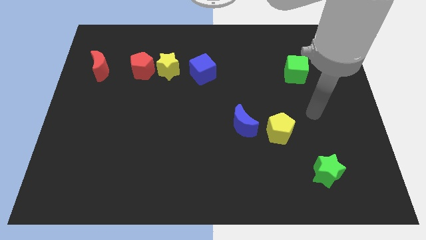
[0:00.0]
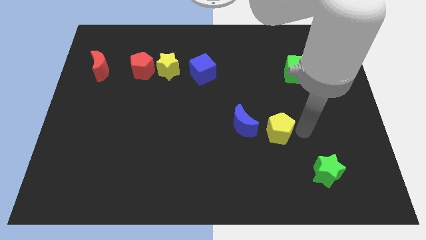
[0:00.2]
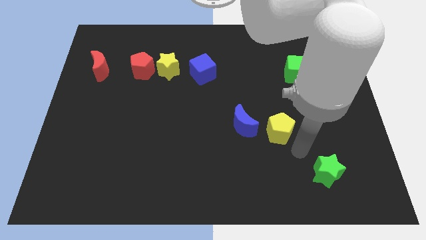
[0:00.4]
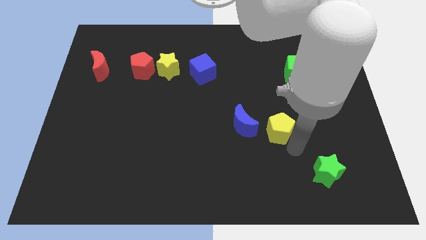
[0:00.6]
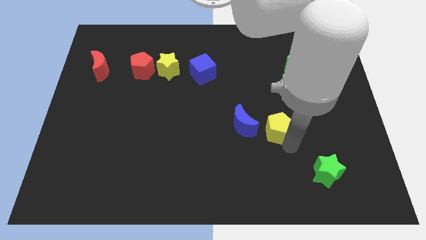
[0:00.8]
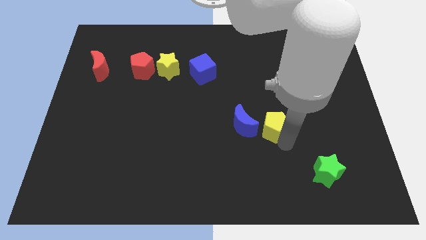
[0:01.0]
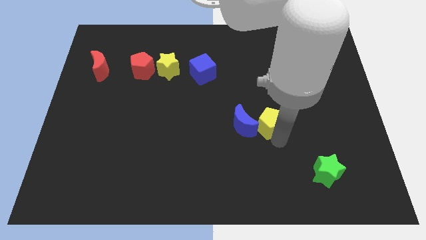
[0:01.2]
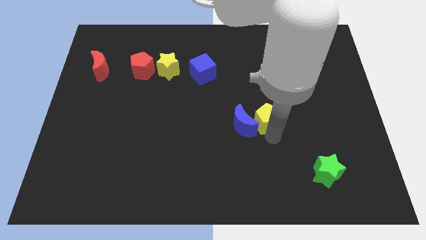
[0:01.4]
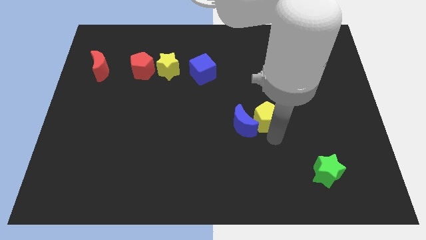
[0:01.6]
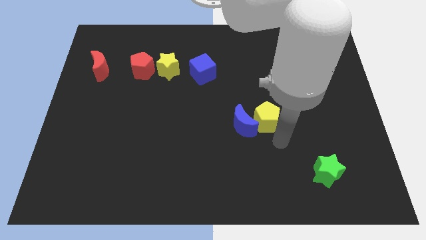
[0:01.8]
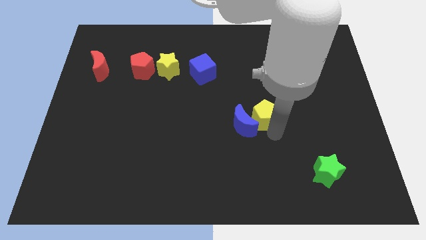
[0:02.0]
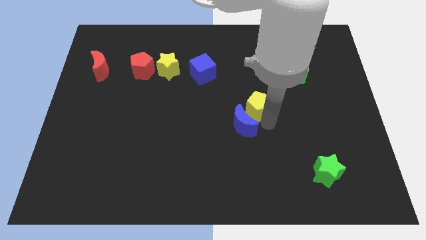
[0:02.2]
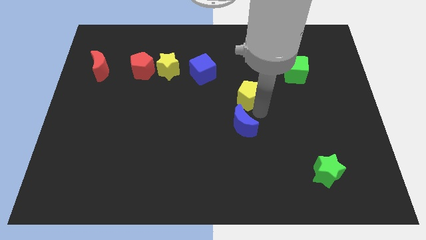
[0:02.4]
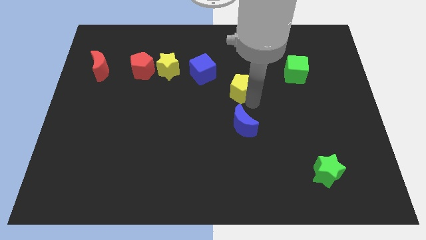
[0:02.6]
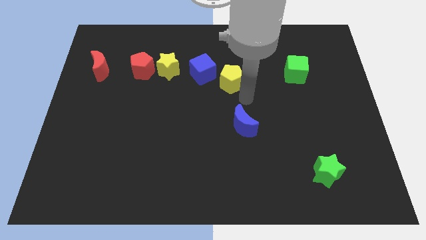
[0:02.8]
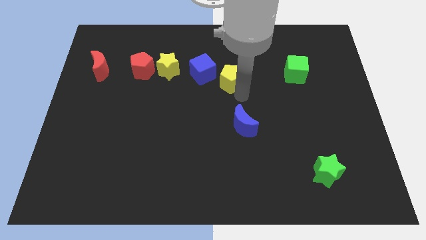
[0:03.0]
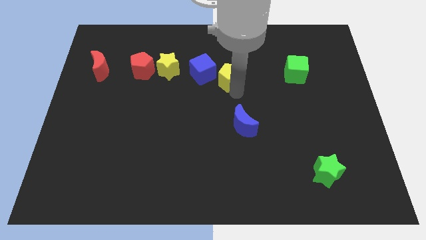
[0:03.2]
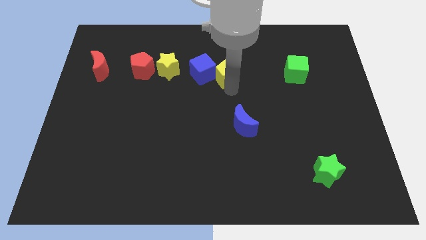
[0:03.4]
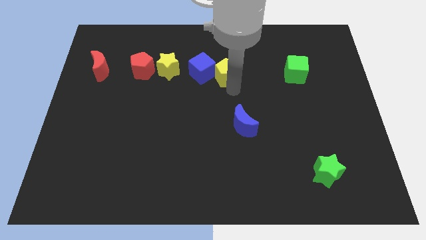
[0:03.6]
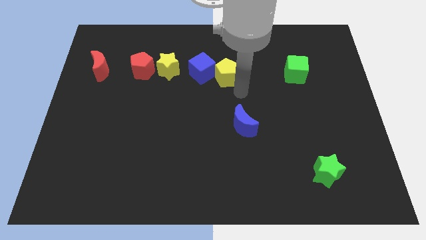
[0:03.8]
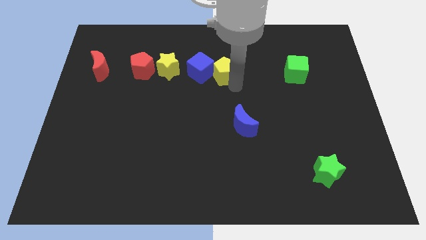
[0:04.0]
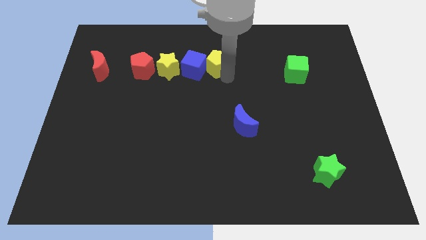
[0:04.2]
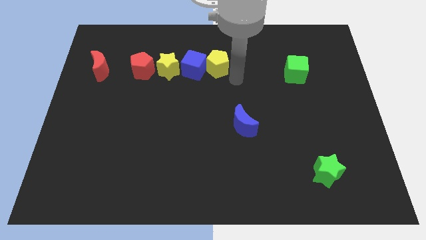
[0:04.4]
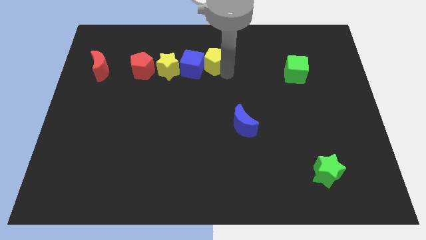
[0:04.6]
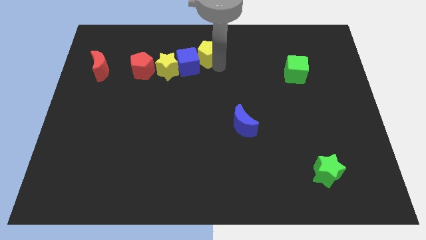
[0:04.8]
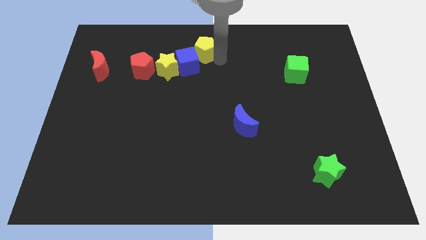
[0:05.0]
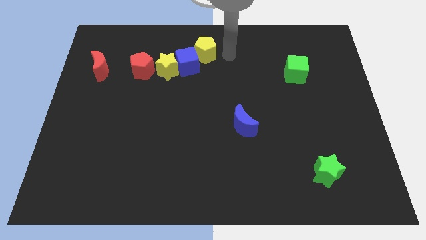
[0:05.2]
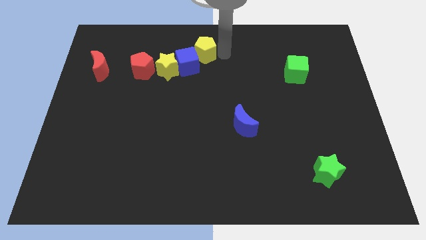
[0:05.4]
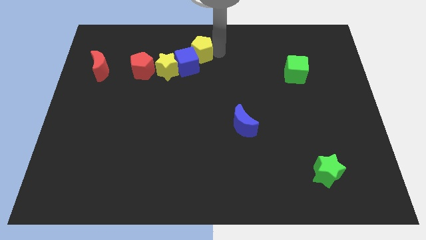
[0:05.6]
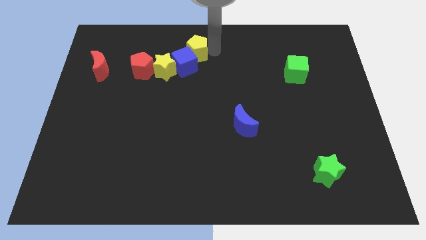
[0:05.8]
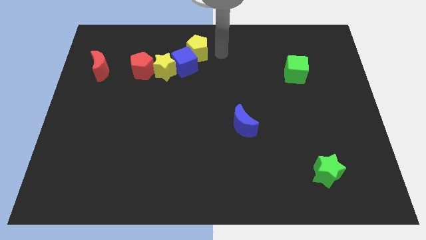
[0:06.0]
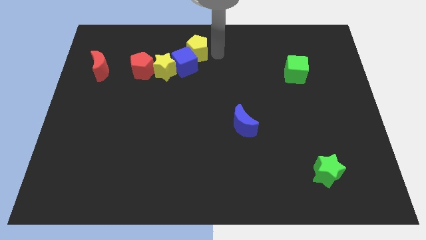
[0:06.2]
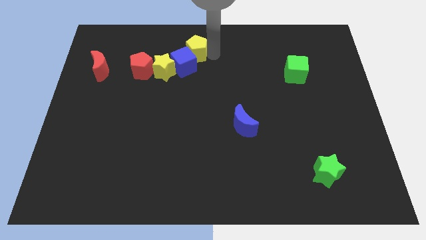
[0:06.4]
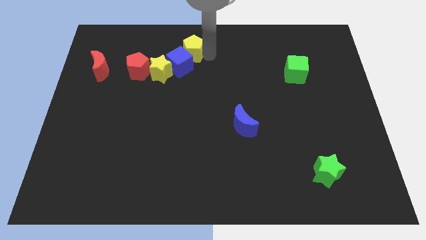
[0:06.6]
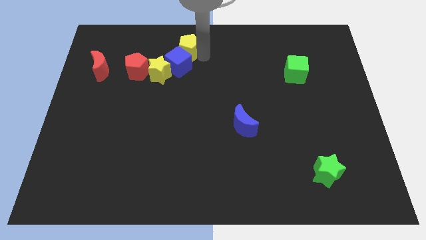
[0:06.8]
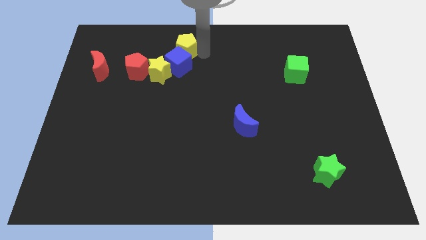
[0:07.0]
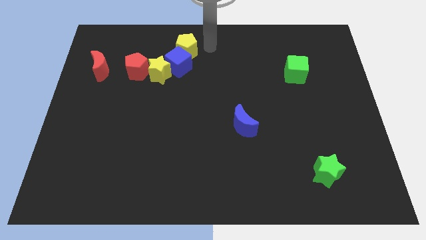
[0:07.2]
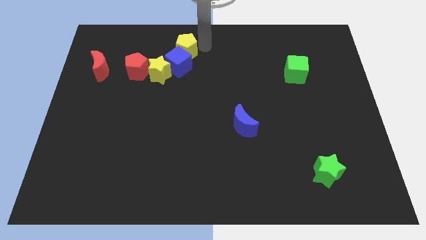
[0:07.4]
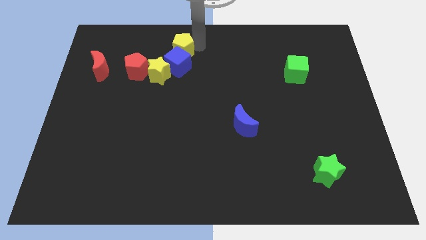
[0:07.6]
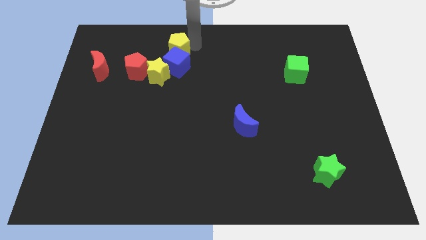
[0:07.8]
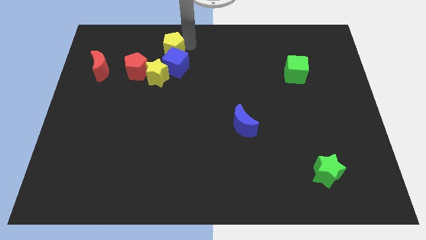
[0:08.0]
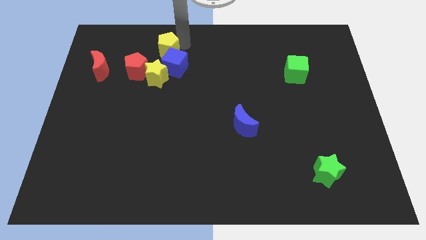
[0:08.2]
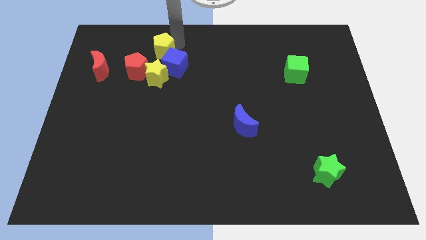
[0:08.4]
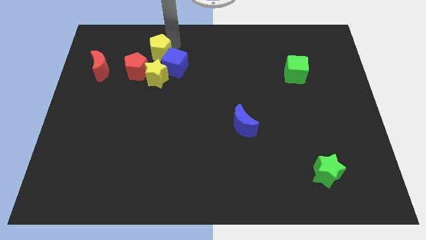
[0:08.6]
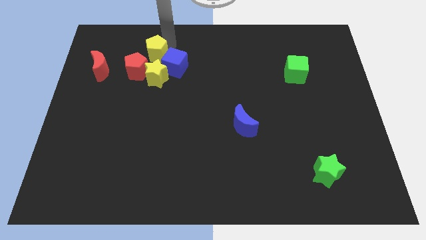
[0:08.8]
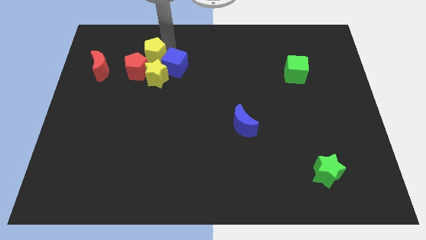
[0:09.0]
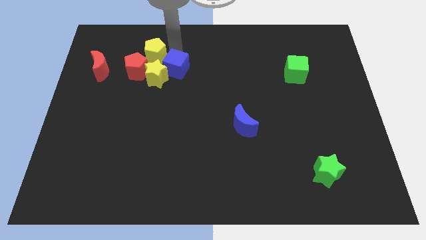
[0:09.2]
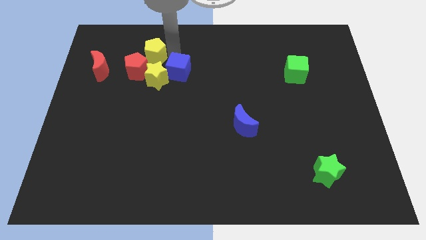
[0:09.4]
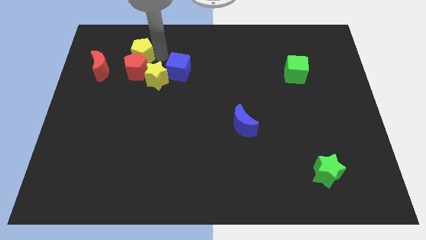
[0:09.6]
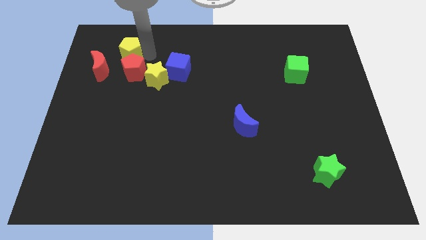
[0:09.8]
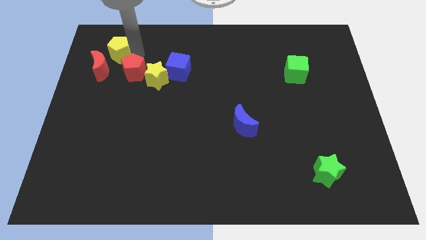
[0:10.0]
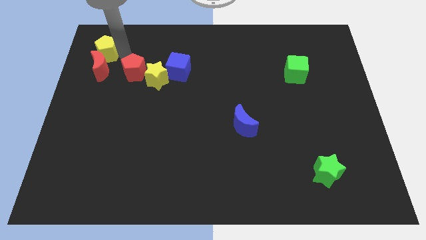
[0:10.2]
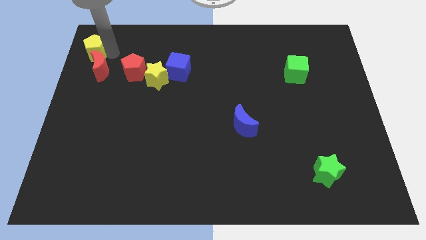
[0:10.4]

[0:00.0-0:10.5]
slide the yellow pentagon to the upper left corner

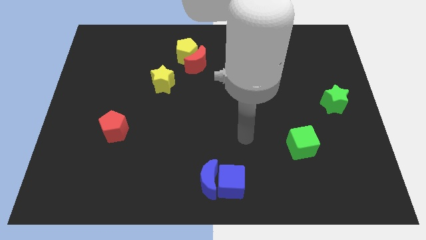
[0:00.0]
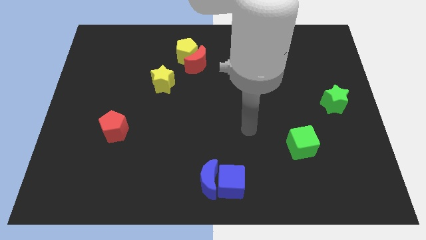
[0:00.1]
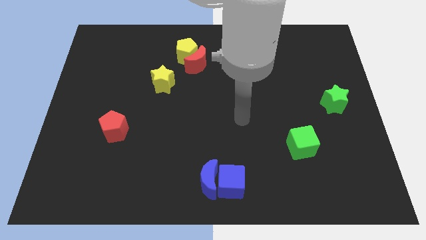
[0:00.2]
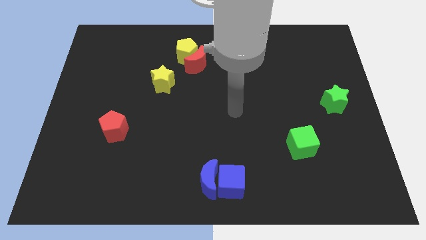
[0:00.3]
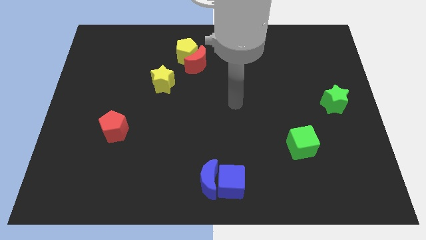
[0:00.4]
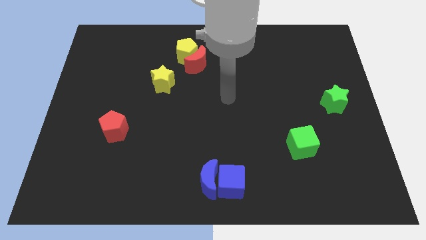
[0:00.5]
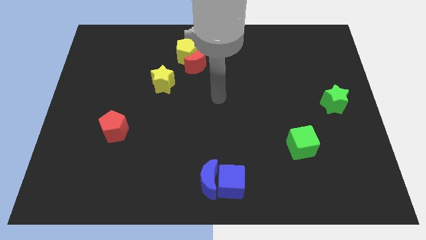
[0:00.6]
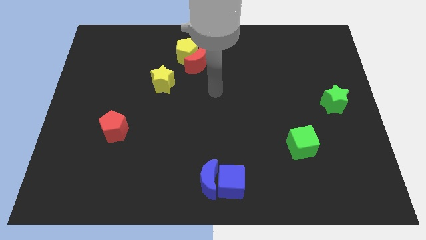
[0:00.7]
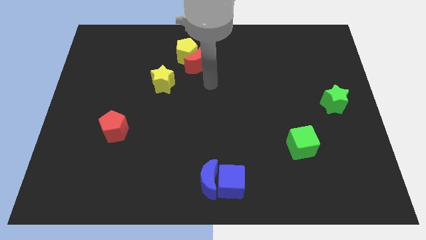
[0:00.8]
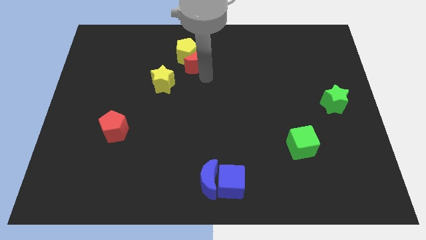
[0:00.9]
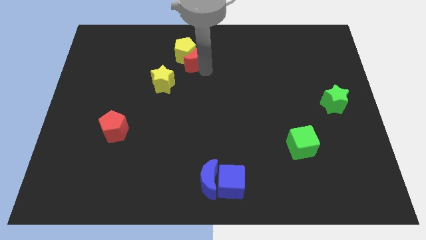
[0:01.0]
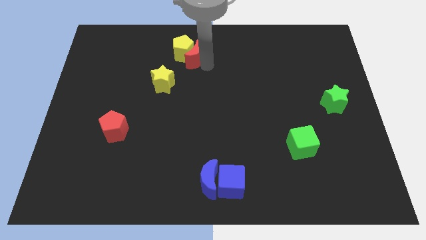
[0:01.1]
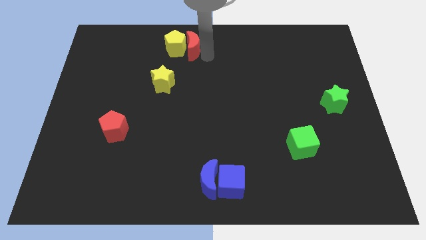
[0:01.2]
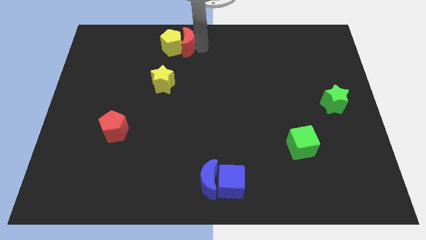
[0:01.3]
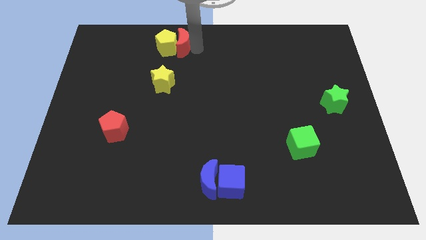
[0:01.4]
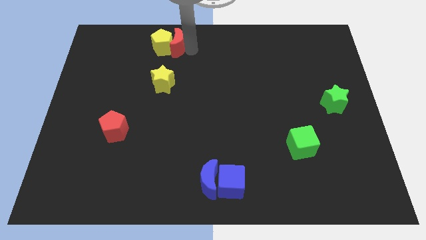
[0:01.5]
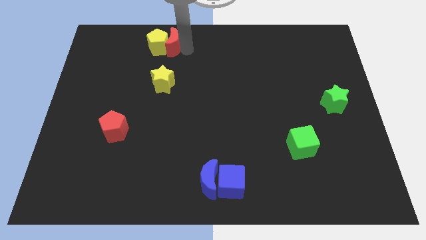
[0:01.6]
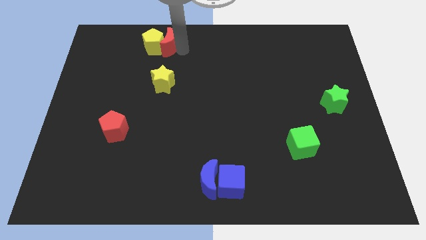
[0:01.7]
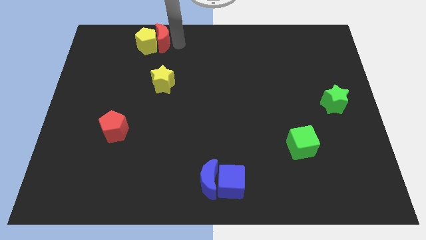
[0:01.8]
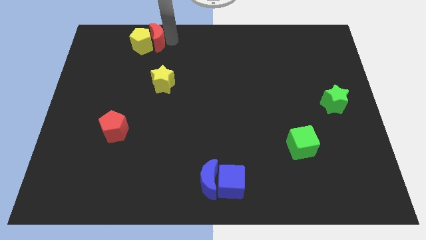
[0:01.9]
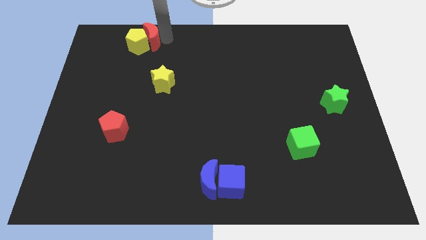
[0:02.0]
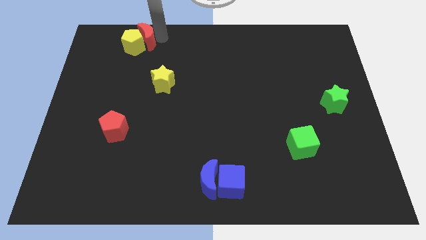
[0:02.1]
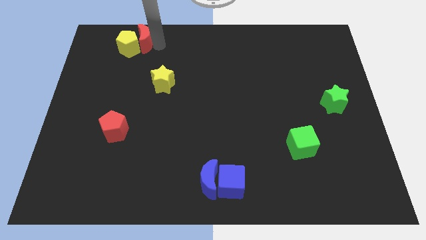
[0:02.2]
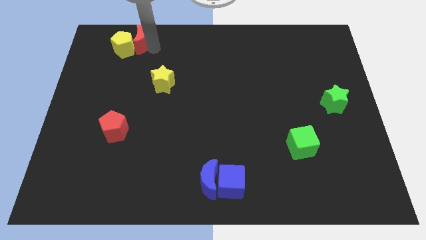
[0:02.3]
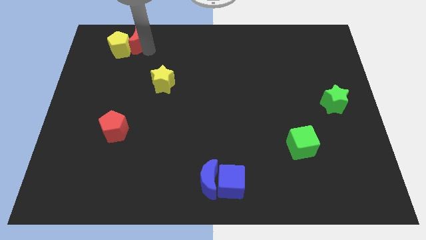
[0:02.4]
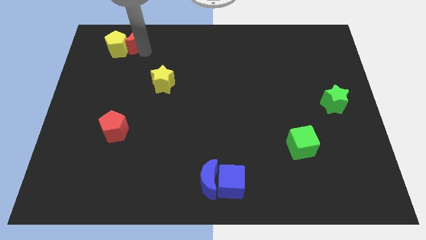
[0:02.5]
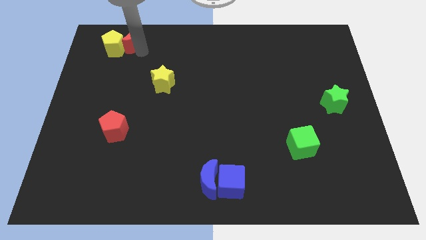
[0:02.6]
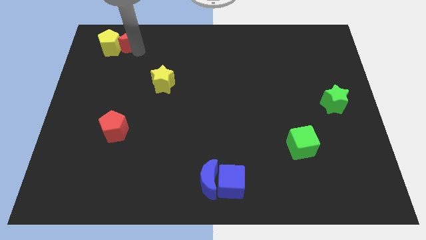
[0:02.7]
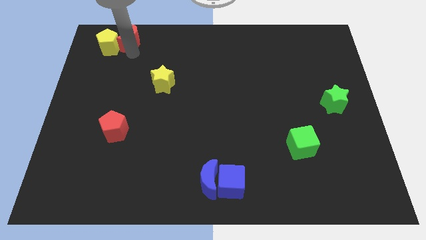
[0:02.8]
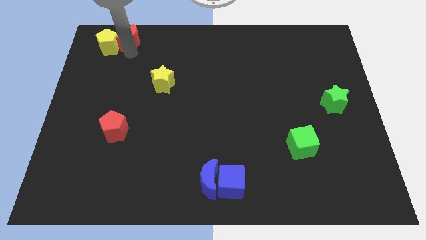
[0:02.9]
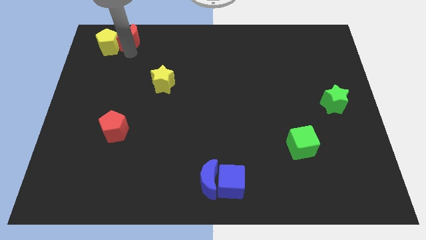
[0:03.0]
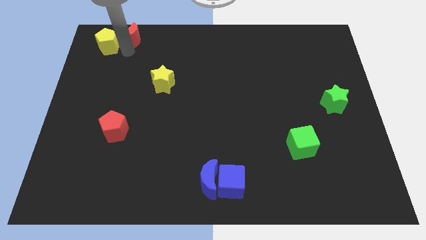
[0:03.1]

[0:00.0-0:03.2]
slide the yellow pentagon to the top left
